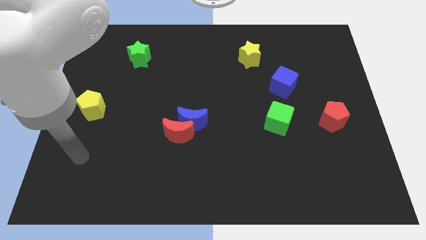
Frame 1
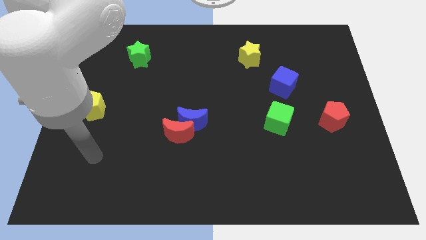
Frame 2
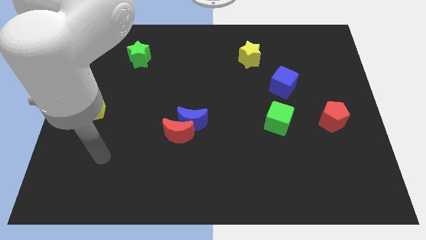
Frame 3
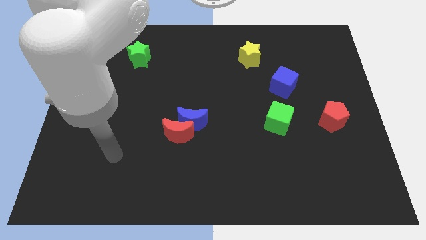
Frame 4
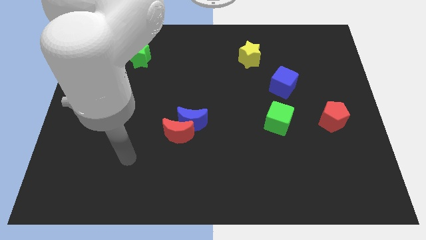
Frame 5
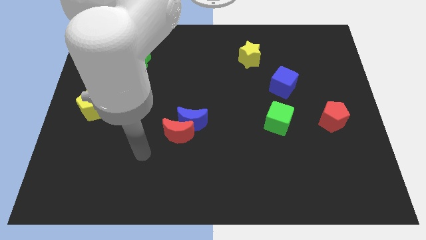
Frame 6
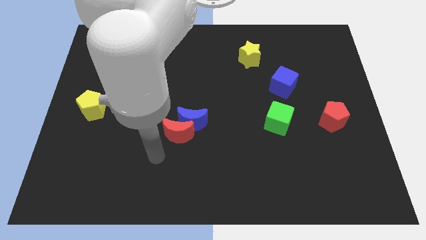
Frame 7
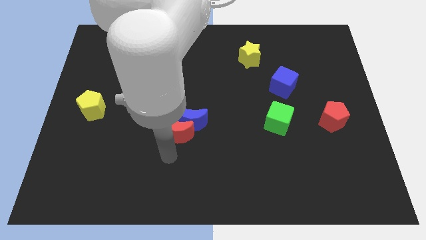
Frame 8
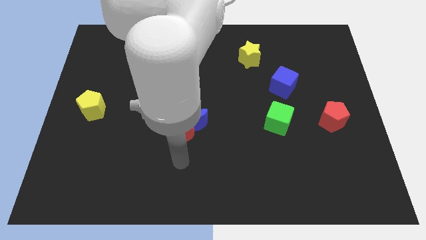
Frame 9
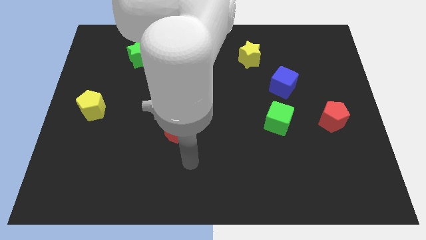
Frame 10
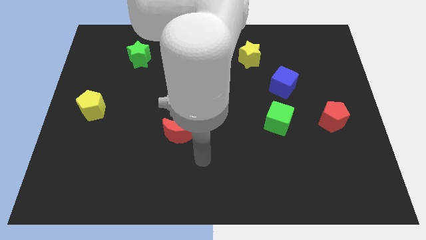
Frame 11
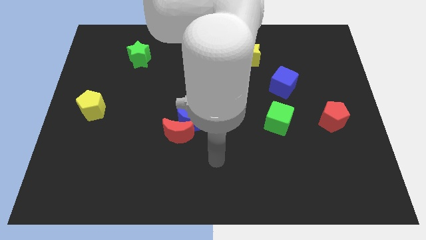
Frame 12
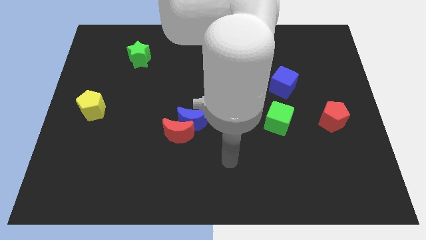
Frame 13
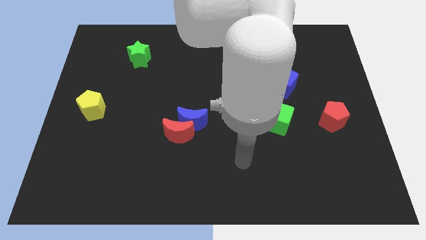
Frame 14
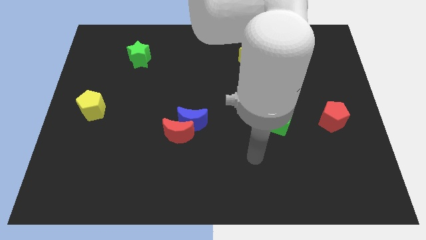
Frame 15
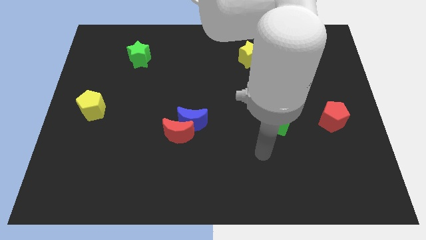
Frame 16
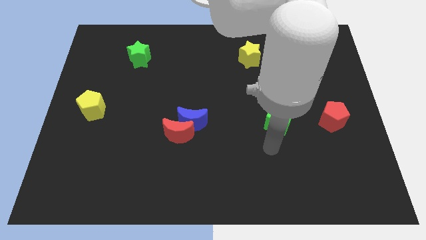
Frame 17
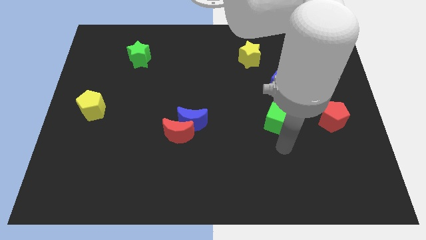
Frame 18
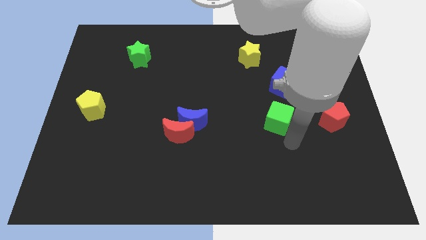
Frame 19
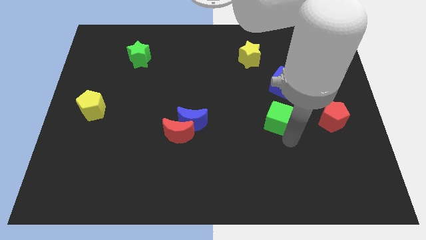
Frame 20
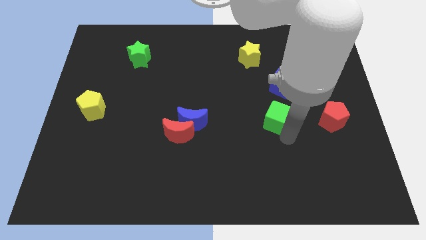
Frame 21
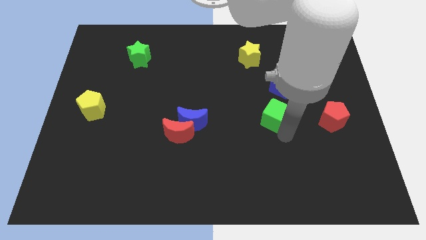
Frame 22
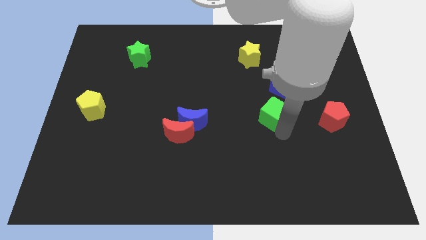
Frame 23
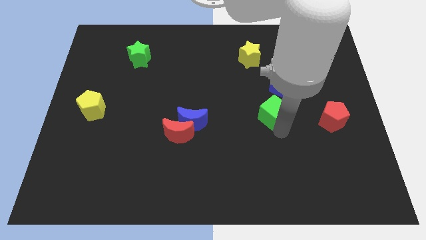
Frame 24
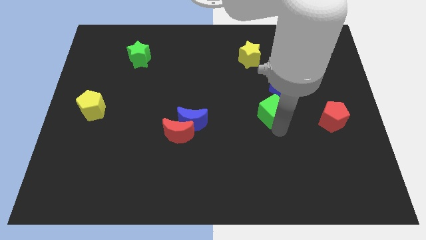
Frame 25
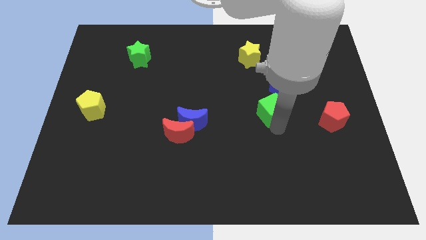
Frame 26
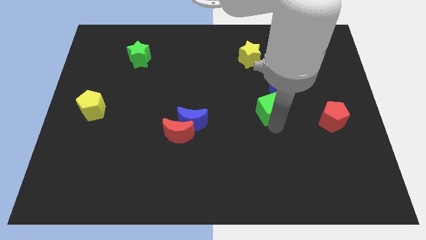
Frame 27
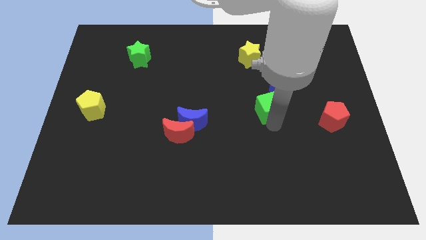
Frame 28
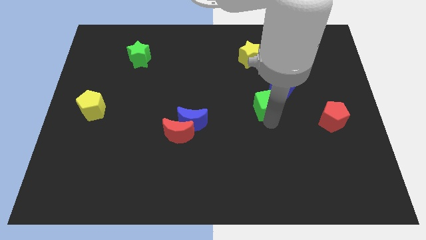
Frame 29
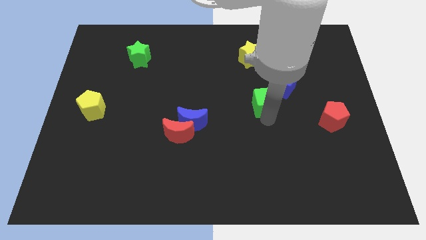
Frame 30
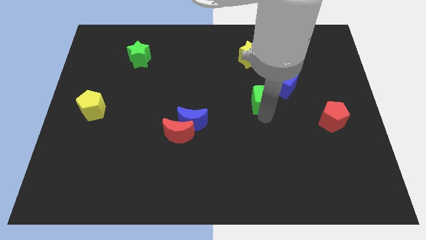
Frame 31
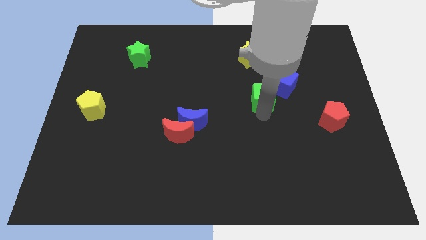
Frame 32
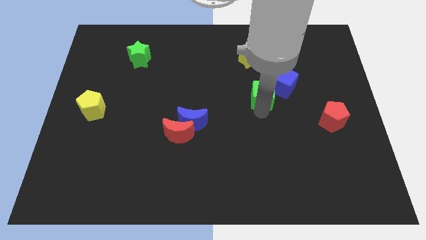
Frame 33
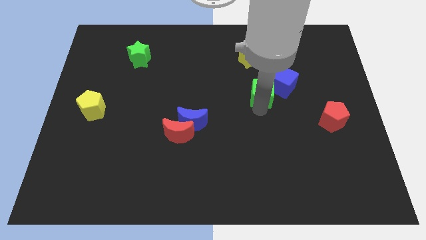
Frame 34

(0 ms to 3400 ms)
push the green cube somewhat upwards

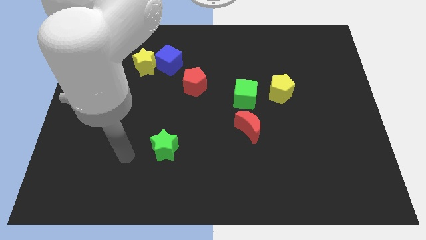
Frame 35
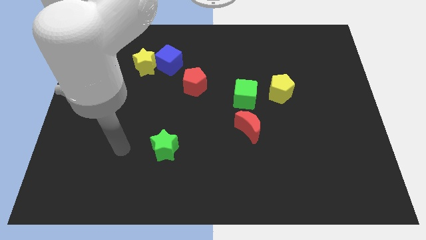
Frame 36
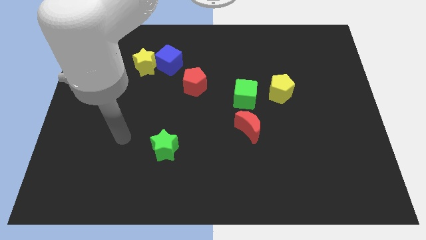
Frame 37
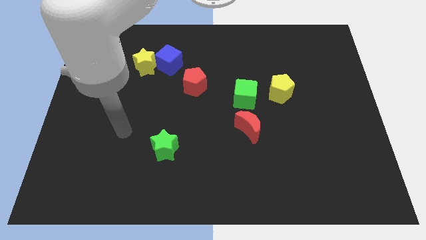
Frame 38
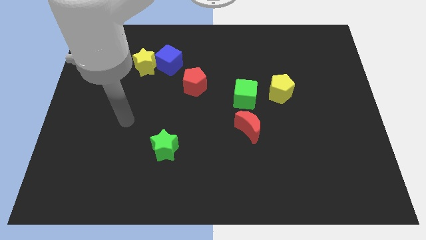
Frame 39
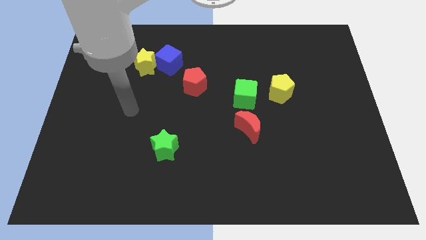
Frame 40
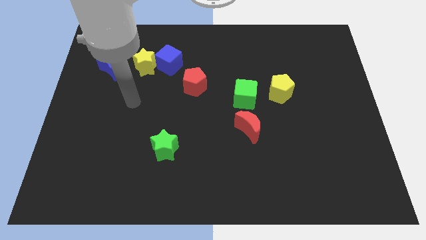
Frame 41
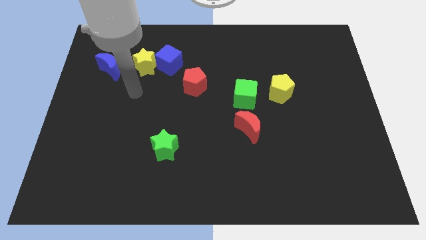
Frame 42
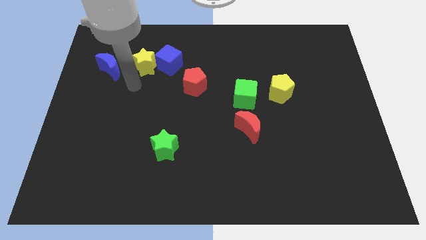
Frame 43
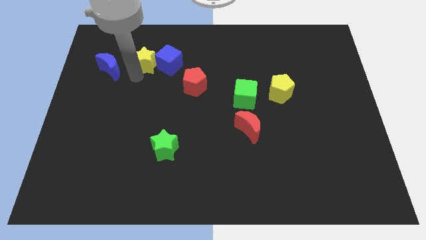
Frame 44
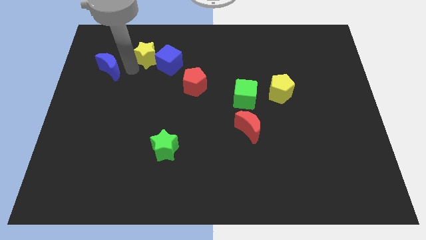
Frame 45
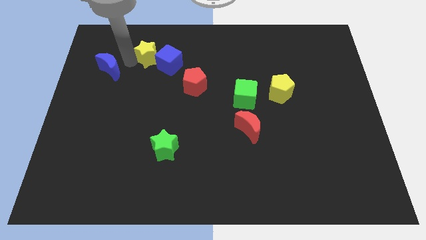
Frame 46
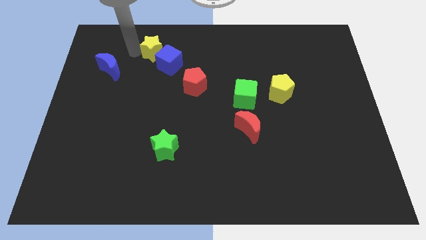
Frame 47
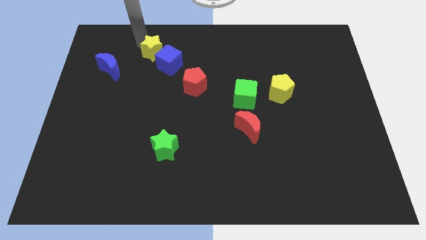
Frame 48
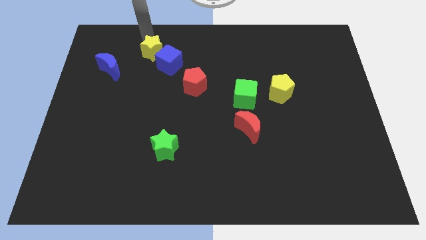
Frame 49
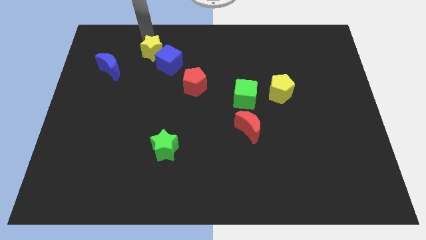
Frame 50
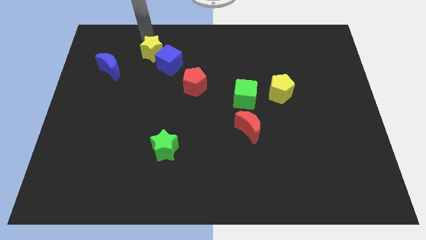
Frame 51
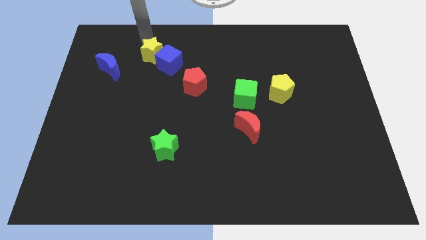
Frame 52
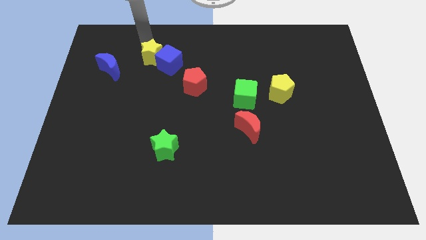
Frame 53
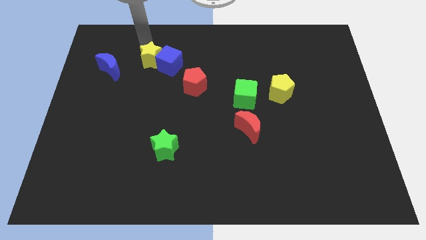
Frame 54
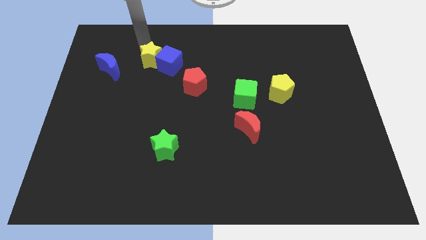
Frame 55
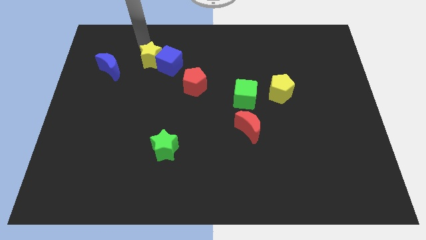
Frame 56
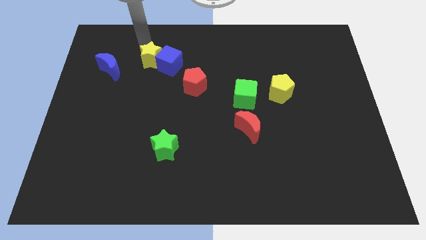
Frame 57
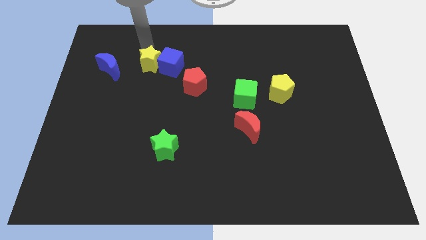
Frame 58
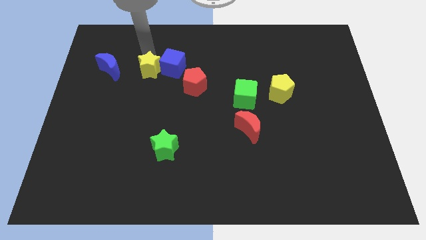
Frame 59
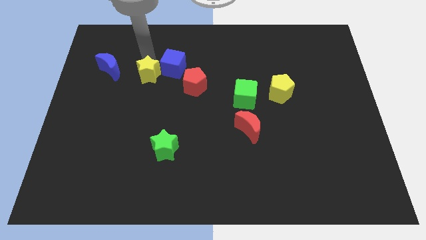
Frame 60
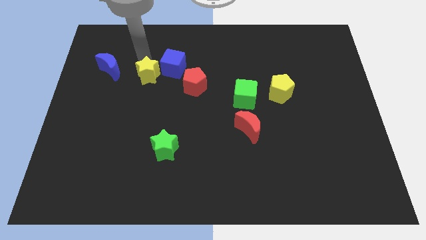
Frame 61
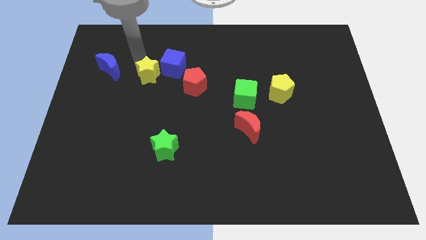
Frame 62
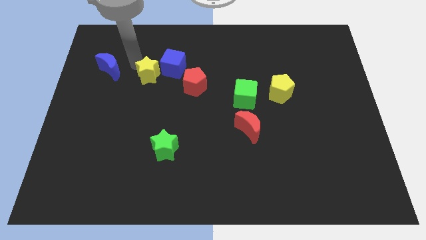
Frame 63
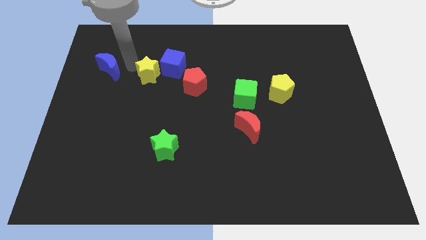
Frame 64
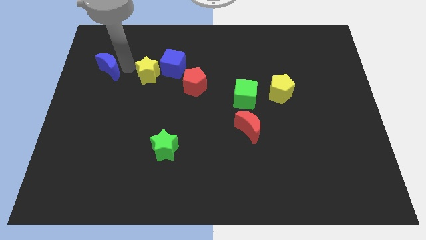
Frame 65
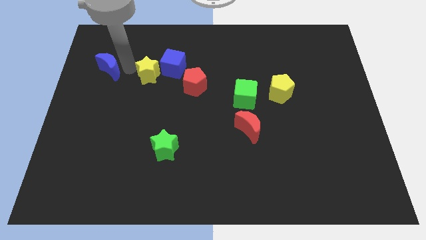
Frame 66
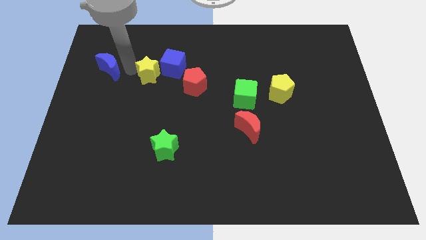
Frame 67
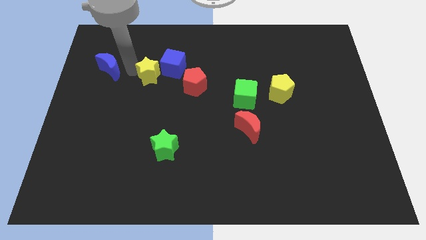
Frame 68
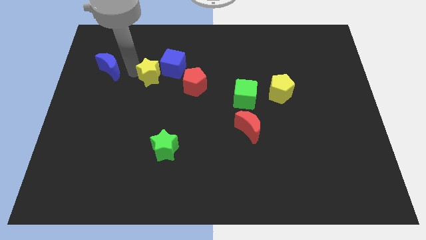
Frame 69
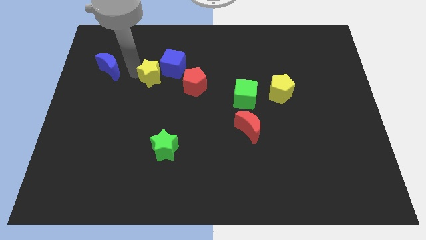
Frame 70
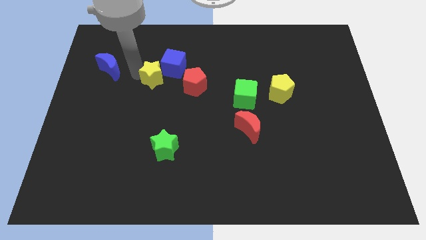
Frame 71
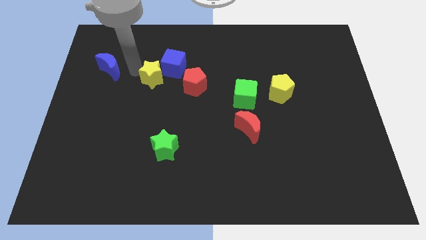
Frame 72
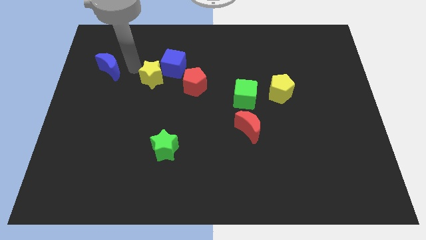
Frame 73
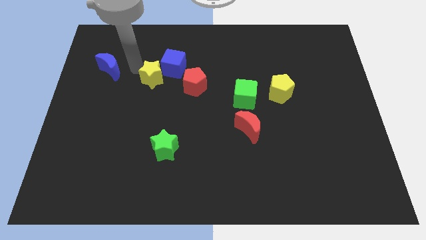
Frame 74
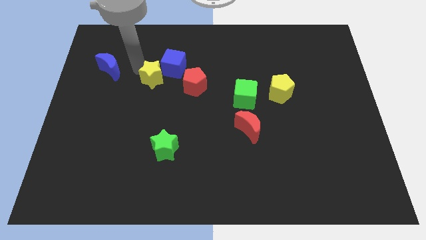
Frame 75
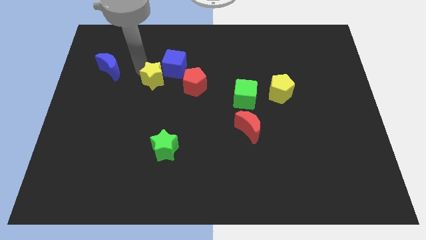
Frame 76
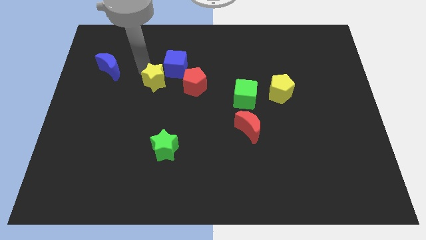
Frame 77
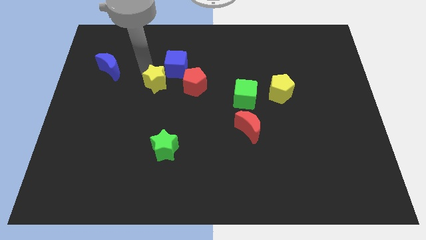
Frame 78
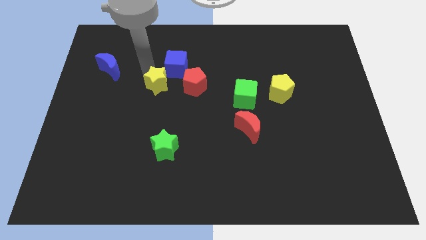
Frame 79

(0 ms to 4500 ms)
slightly slide the yellow star diagonally downwards and to the right

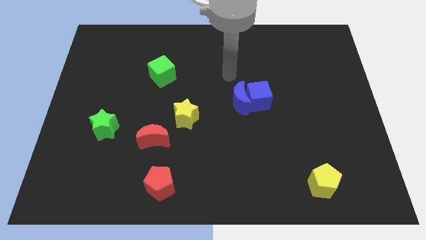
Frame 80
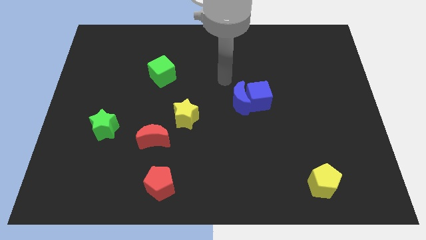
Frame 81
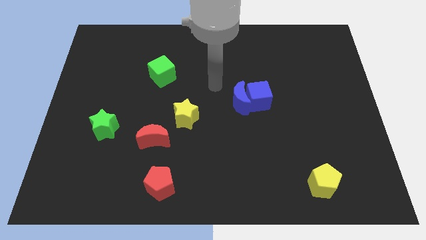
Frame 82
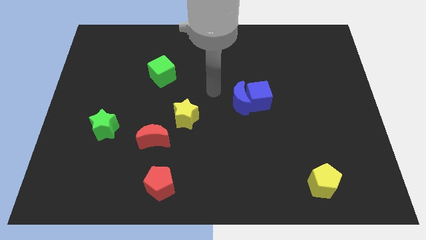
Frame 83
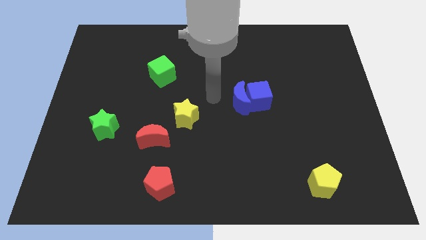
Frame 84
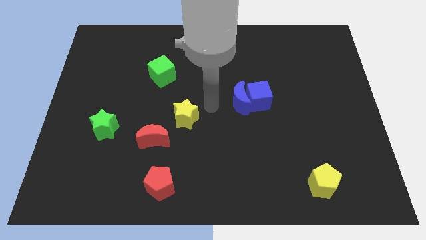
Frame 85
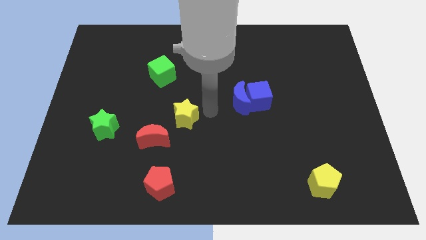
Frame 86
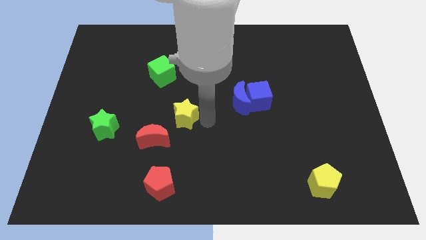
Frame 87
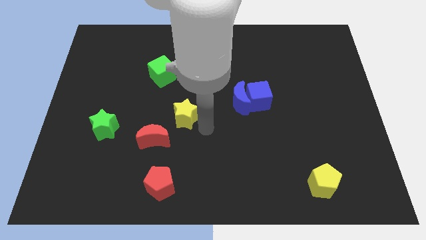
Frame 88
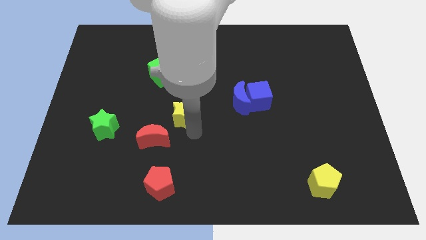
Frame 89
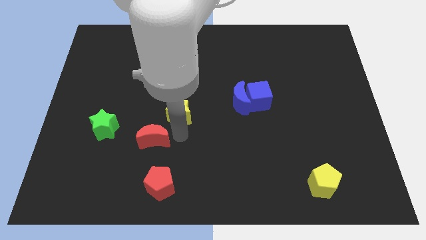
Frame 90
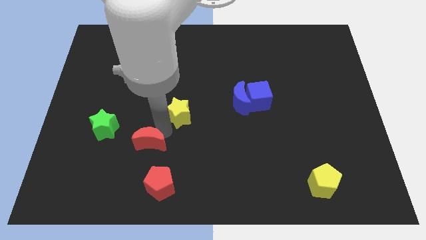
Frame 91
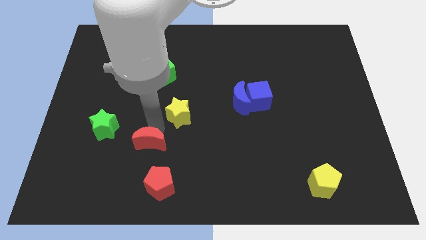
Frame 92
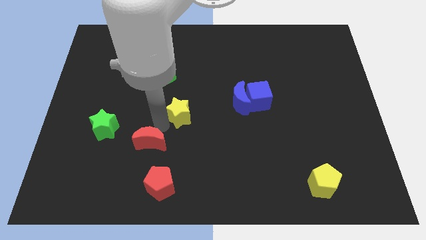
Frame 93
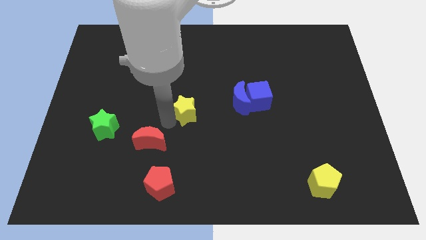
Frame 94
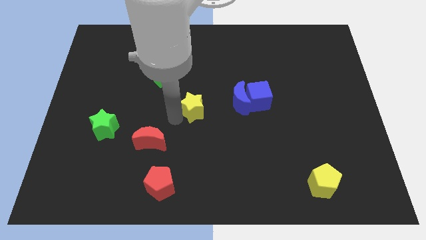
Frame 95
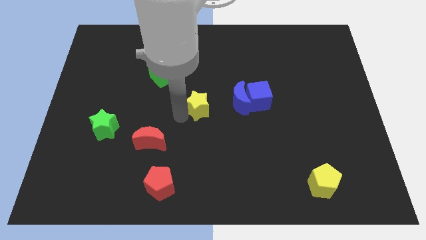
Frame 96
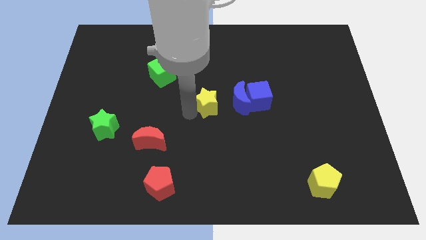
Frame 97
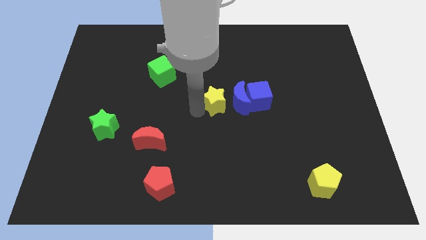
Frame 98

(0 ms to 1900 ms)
slightly push the yellow star upwards and then right
